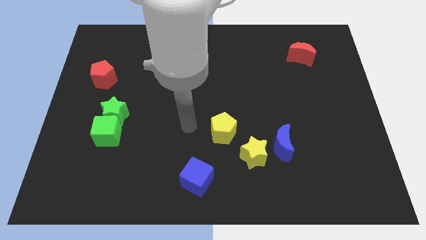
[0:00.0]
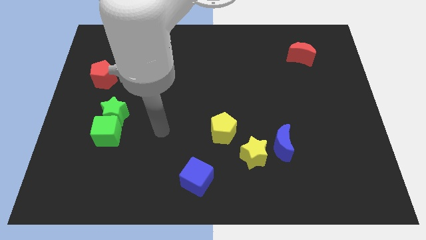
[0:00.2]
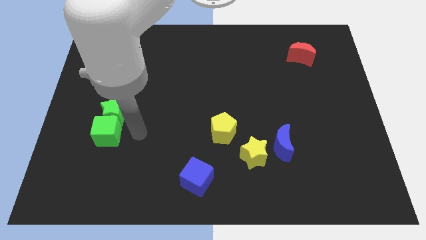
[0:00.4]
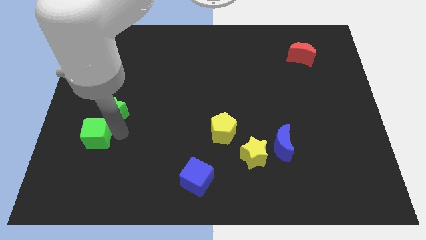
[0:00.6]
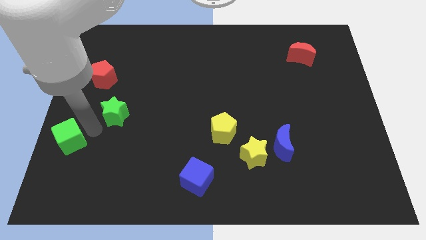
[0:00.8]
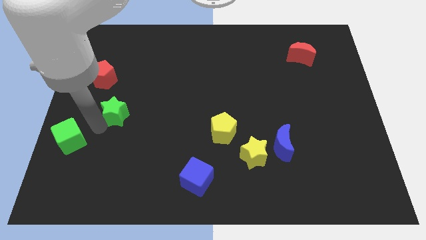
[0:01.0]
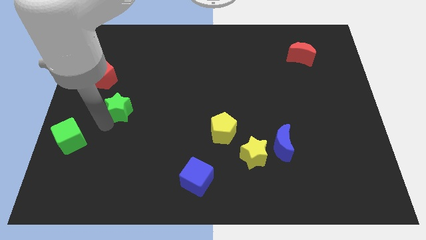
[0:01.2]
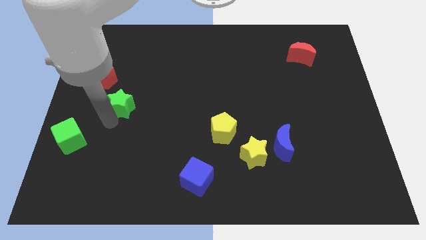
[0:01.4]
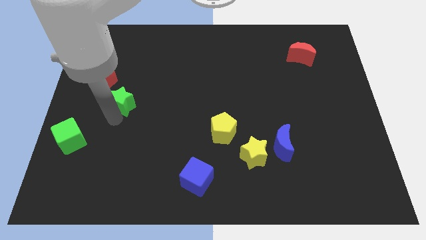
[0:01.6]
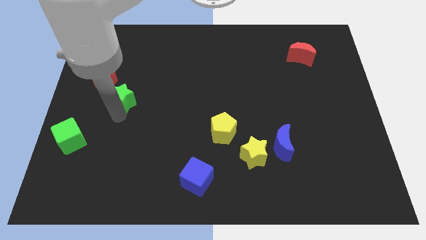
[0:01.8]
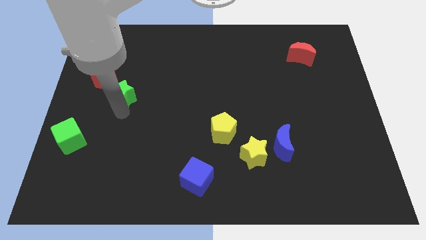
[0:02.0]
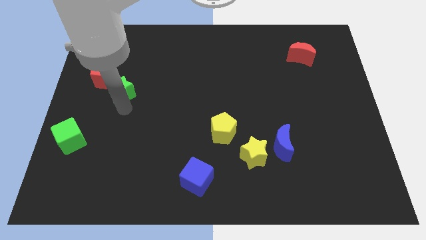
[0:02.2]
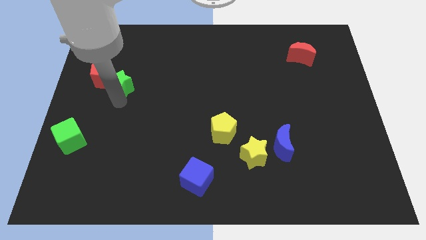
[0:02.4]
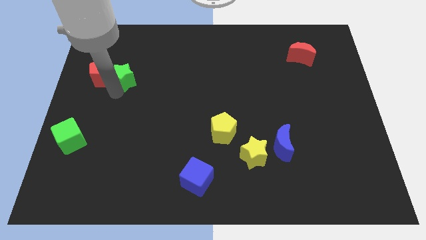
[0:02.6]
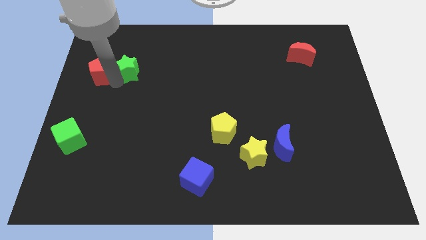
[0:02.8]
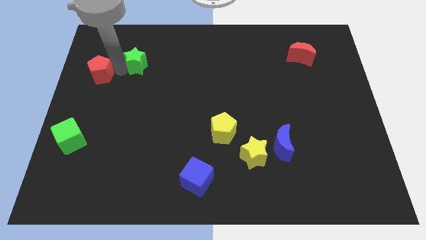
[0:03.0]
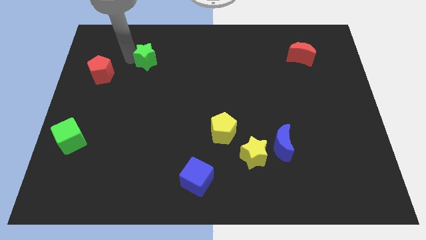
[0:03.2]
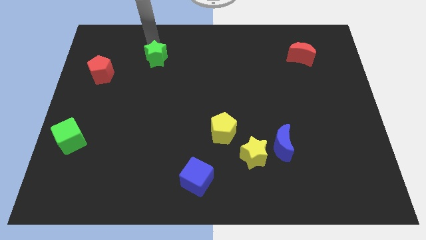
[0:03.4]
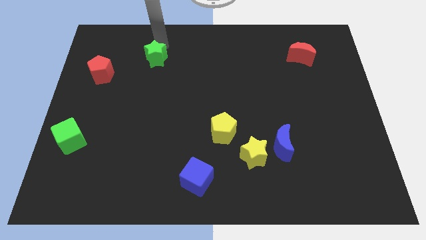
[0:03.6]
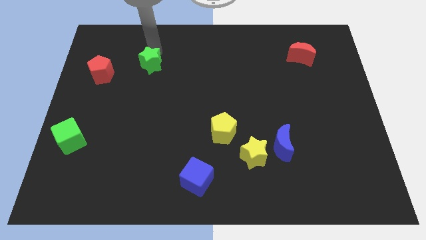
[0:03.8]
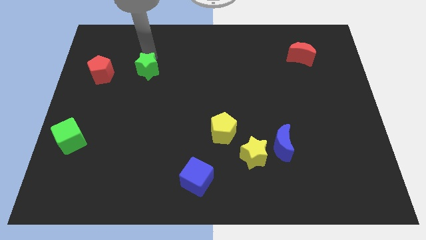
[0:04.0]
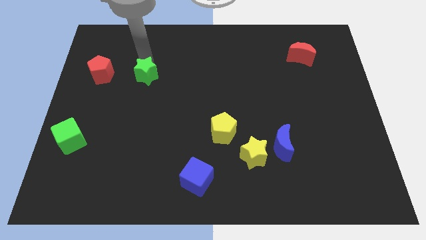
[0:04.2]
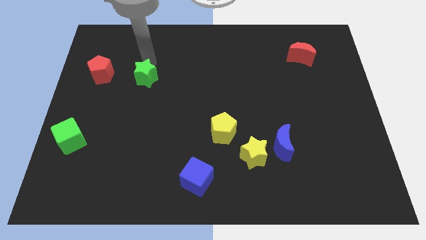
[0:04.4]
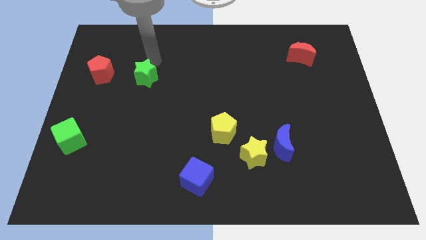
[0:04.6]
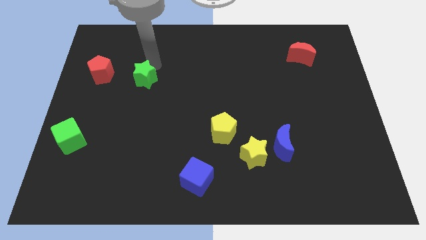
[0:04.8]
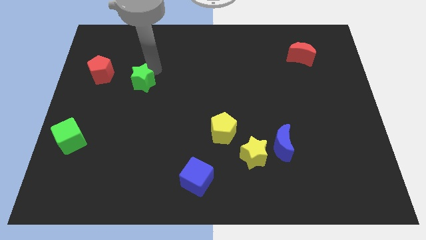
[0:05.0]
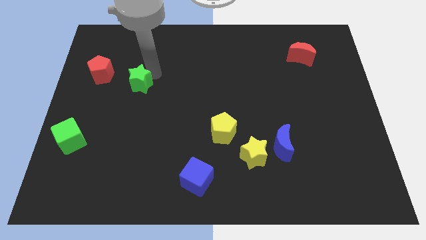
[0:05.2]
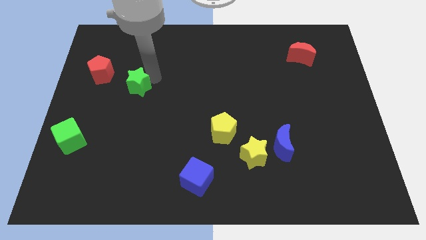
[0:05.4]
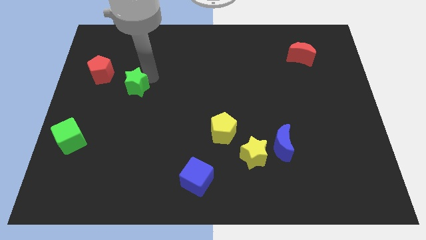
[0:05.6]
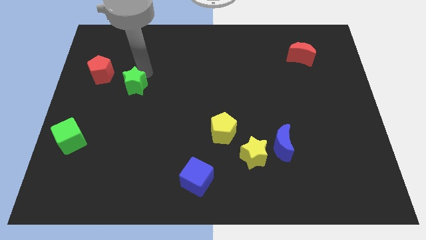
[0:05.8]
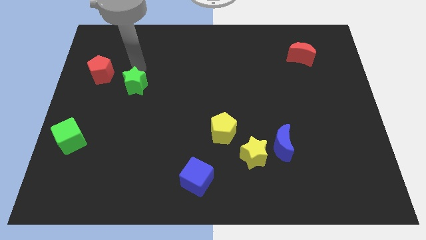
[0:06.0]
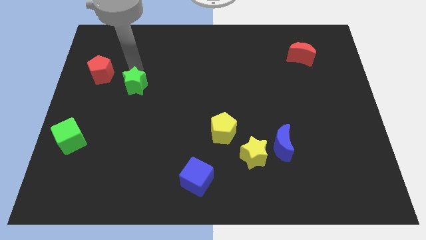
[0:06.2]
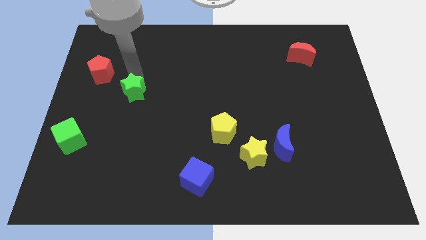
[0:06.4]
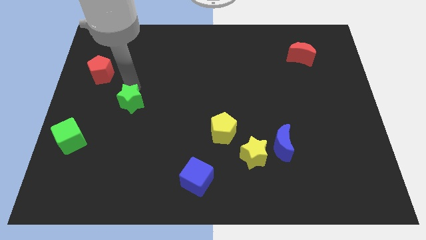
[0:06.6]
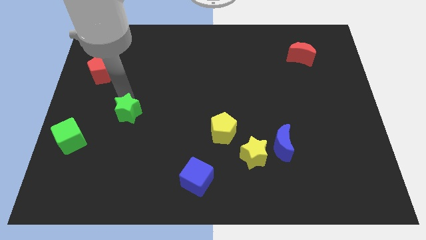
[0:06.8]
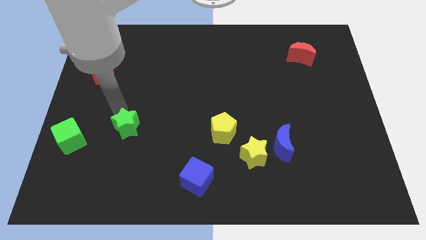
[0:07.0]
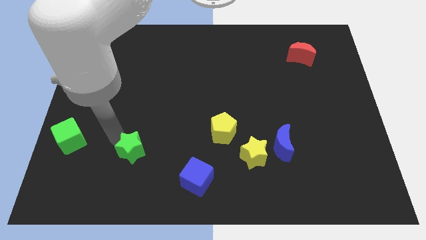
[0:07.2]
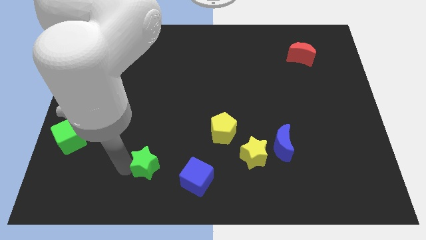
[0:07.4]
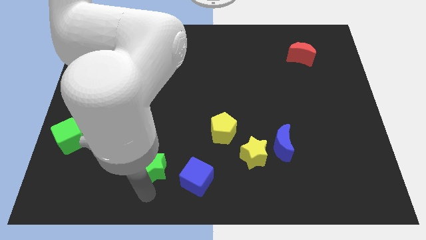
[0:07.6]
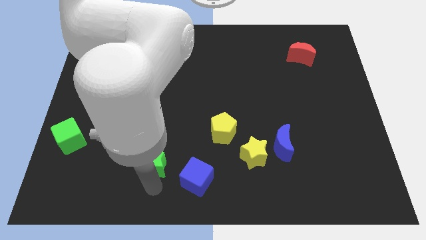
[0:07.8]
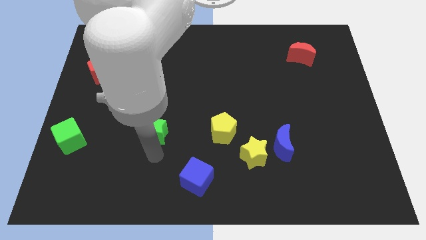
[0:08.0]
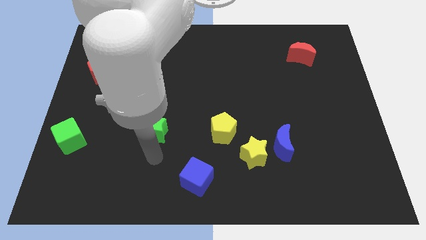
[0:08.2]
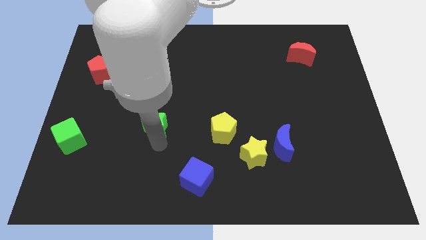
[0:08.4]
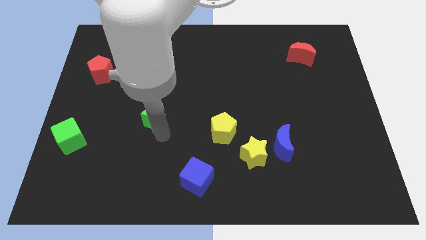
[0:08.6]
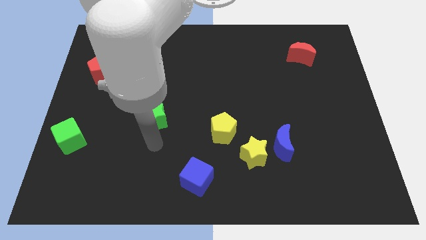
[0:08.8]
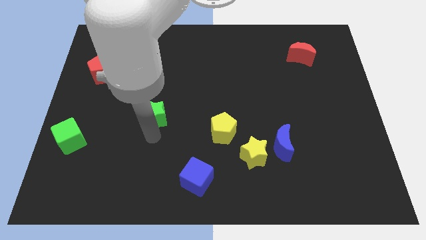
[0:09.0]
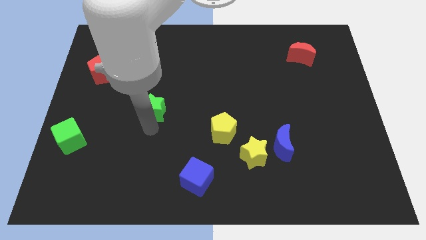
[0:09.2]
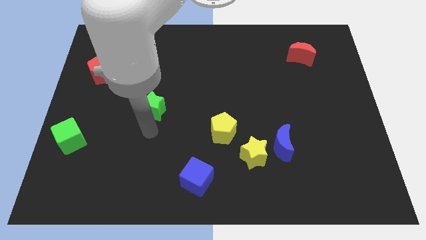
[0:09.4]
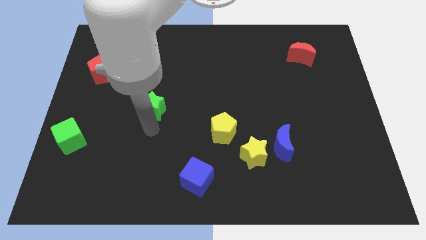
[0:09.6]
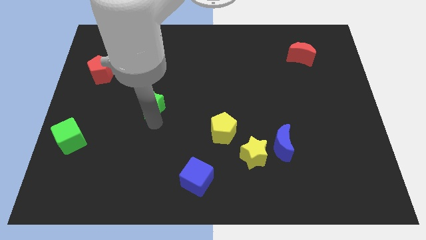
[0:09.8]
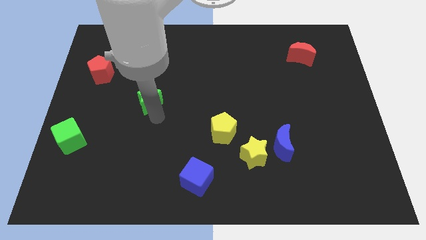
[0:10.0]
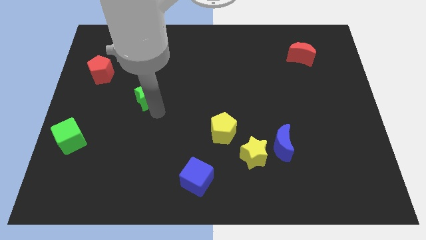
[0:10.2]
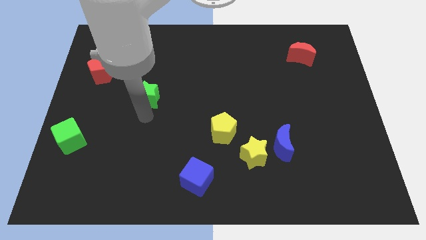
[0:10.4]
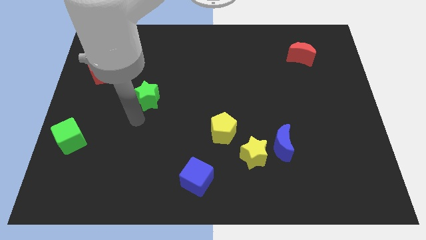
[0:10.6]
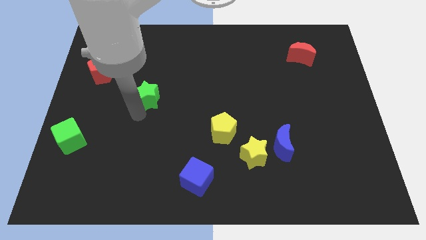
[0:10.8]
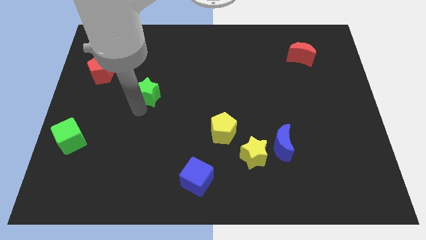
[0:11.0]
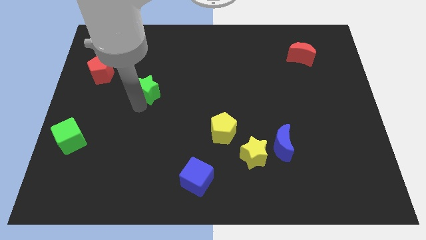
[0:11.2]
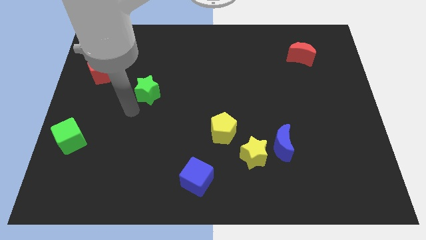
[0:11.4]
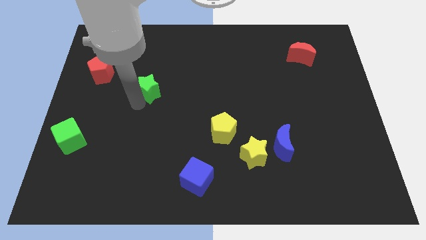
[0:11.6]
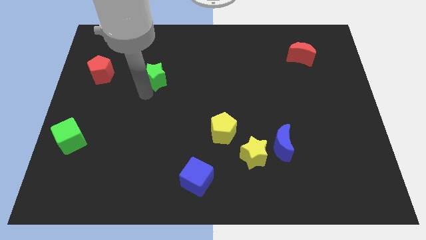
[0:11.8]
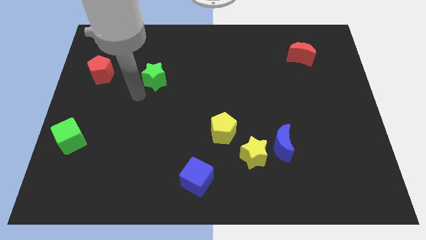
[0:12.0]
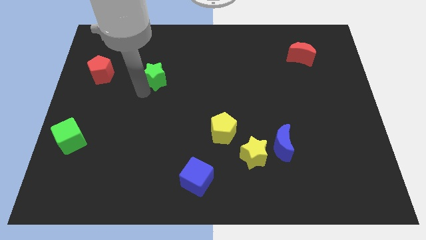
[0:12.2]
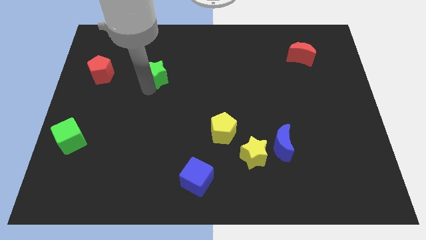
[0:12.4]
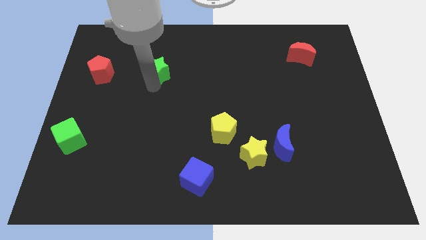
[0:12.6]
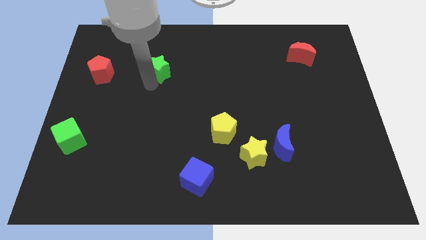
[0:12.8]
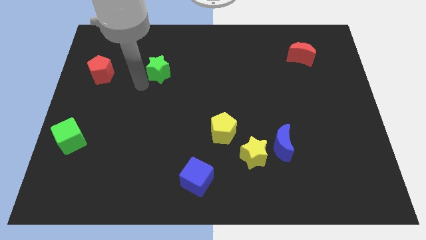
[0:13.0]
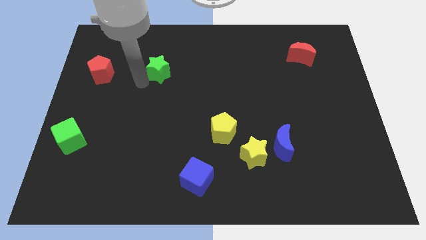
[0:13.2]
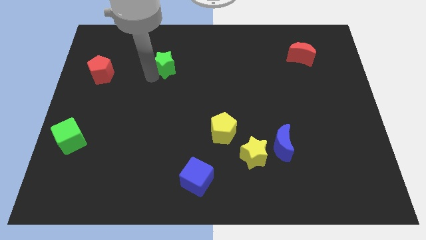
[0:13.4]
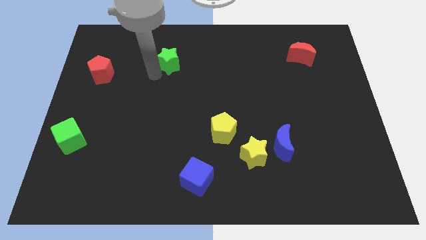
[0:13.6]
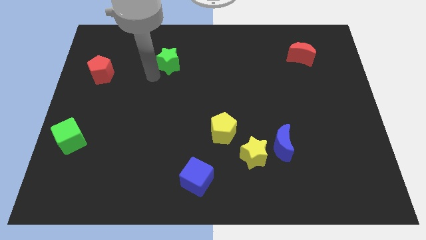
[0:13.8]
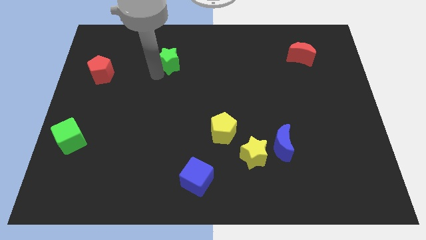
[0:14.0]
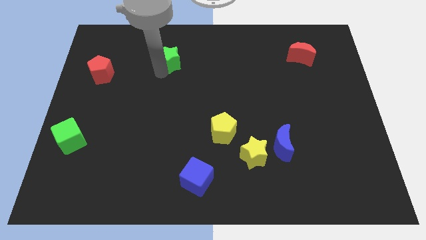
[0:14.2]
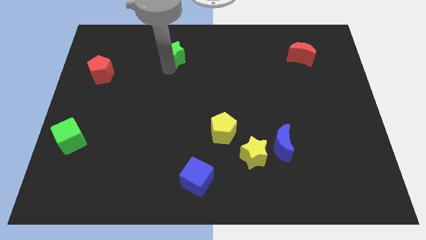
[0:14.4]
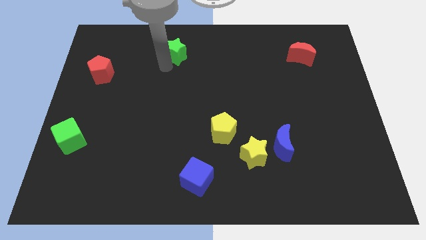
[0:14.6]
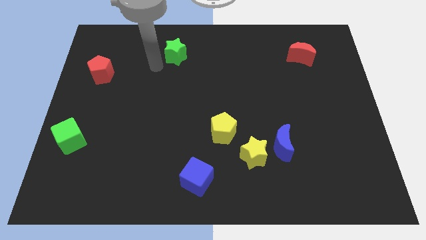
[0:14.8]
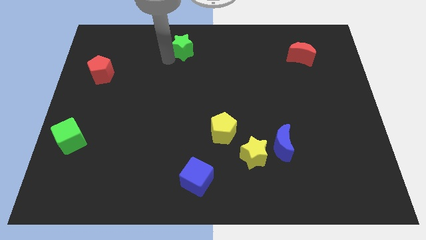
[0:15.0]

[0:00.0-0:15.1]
slide the green star to the top
